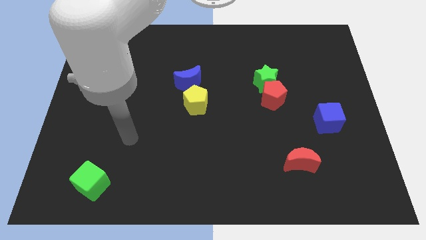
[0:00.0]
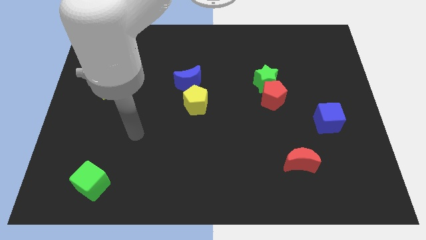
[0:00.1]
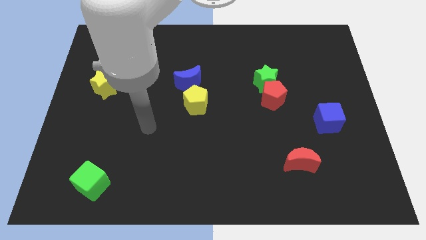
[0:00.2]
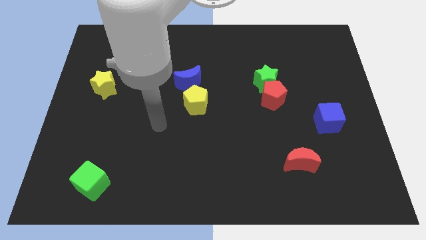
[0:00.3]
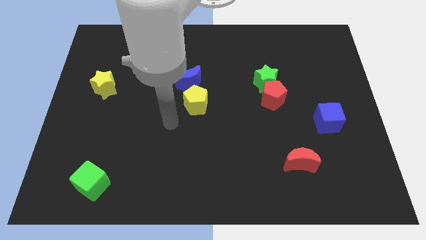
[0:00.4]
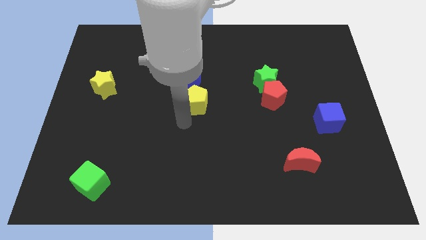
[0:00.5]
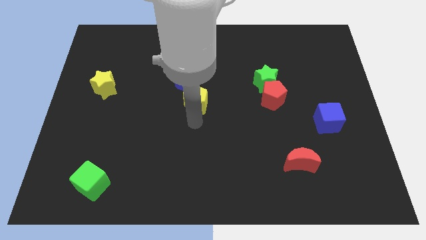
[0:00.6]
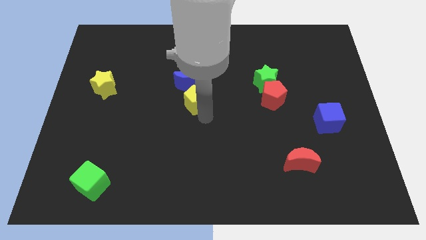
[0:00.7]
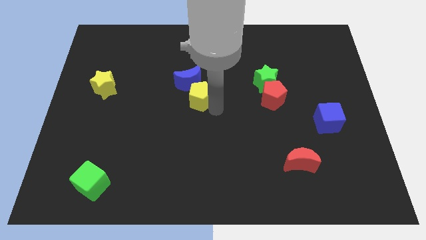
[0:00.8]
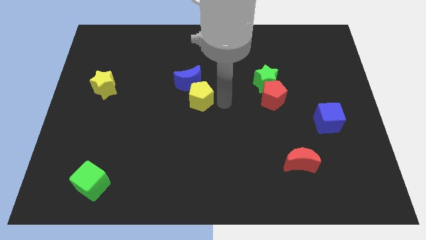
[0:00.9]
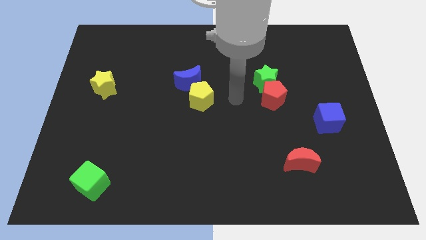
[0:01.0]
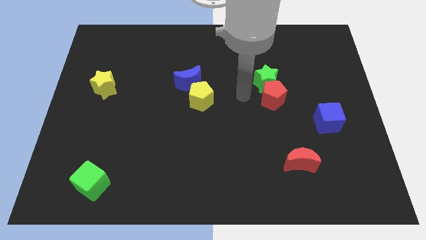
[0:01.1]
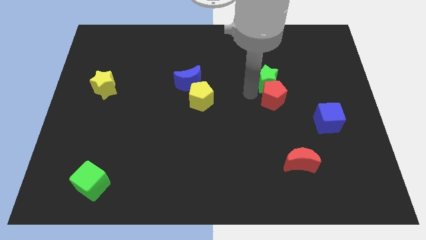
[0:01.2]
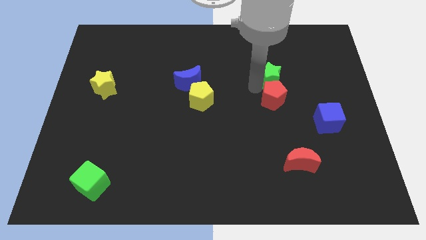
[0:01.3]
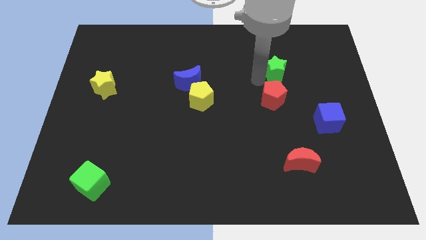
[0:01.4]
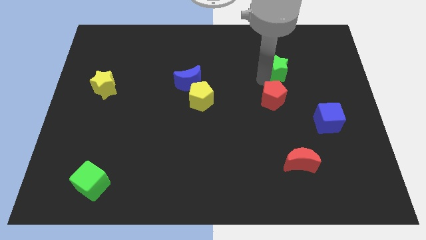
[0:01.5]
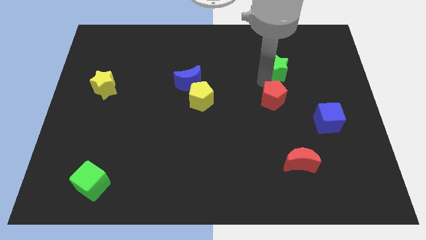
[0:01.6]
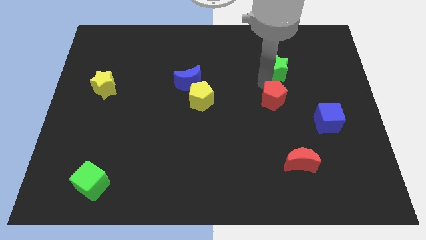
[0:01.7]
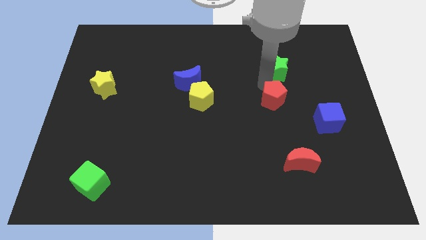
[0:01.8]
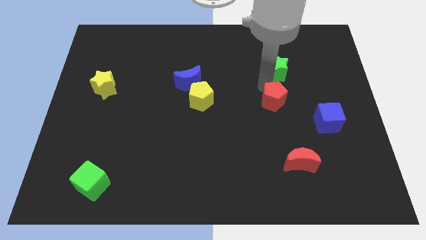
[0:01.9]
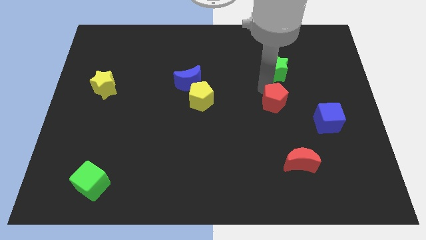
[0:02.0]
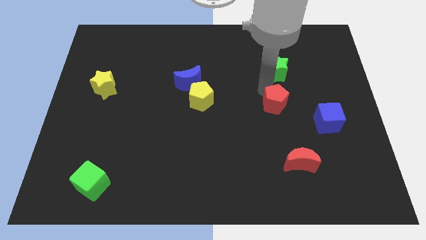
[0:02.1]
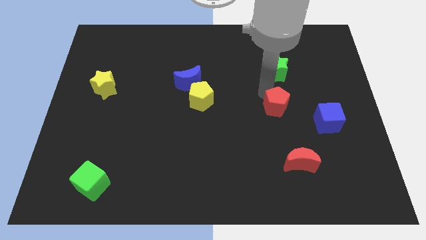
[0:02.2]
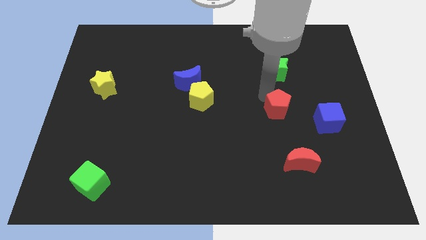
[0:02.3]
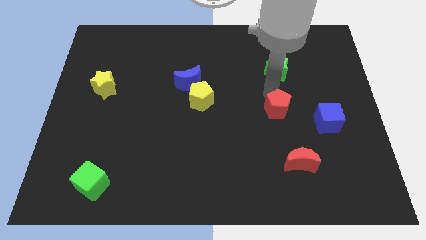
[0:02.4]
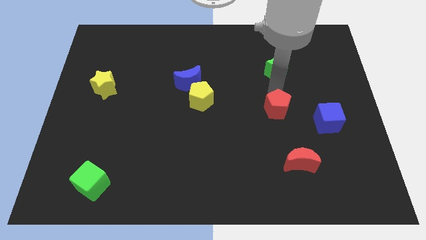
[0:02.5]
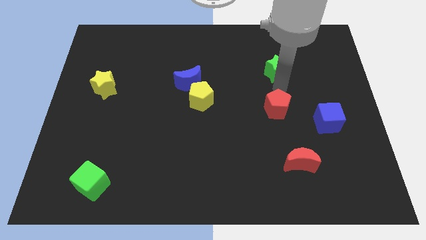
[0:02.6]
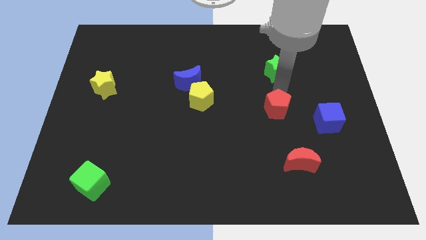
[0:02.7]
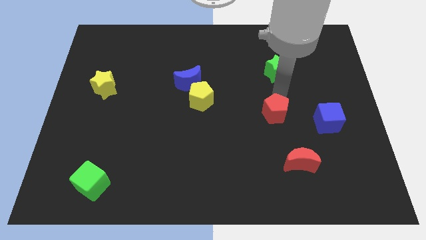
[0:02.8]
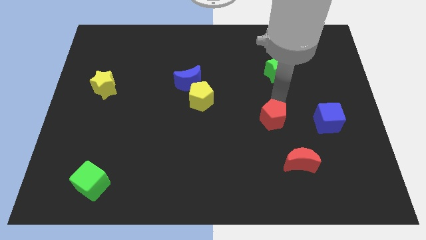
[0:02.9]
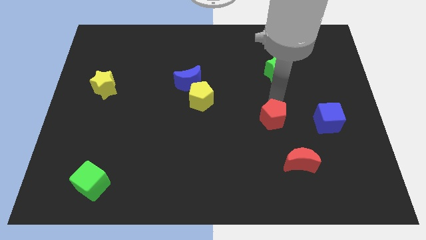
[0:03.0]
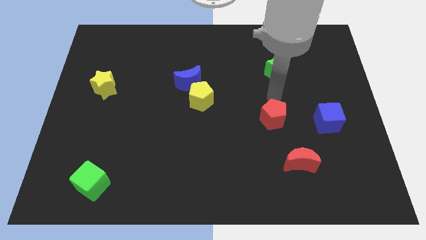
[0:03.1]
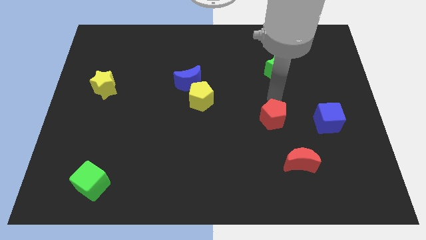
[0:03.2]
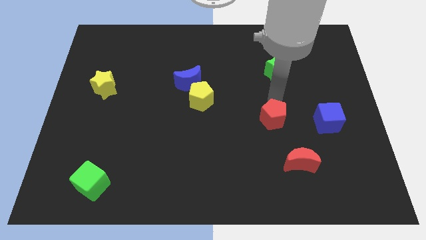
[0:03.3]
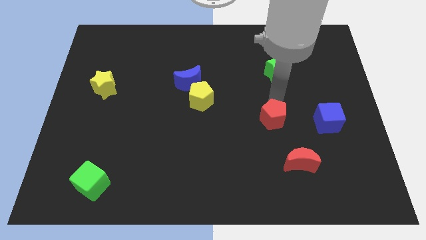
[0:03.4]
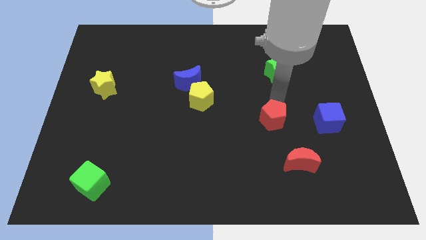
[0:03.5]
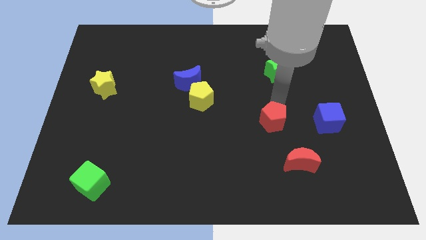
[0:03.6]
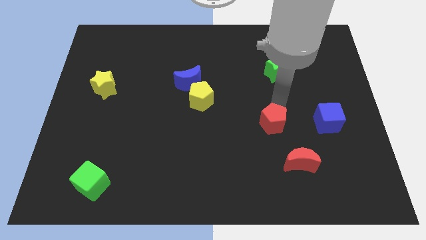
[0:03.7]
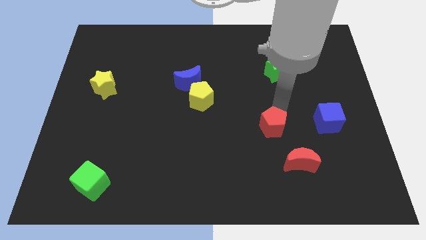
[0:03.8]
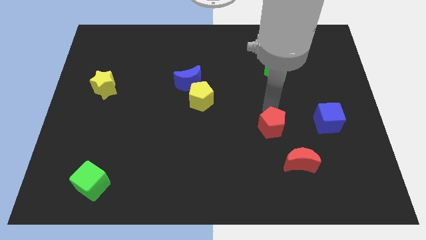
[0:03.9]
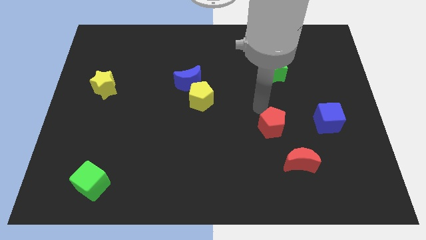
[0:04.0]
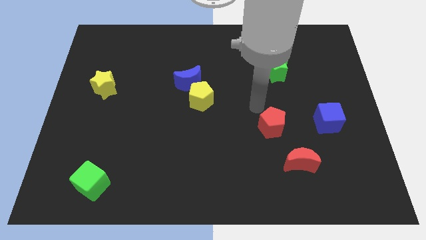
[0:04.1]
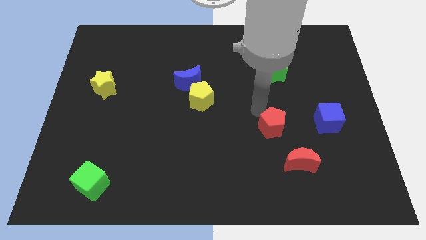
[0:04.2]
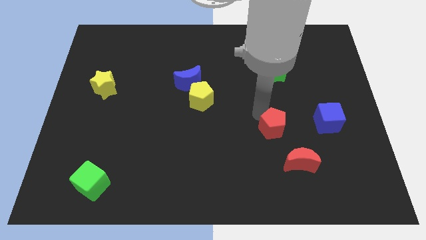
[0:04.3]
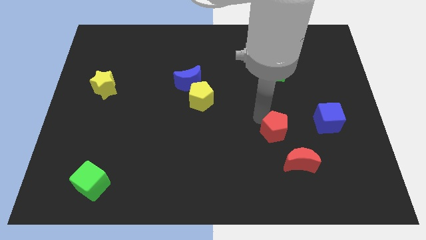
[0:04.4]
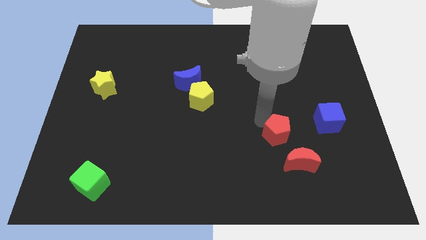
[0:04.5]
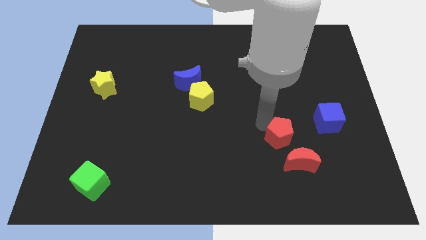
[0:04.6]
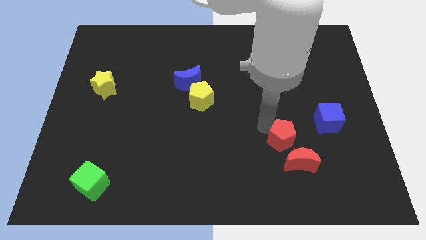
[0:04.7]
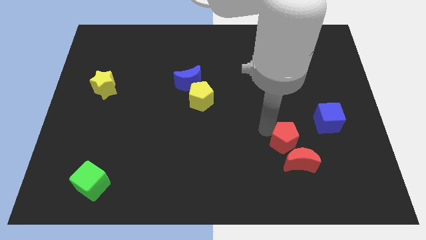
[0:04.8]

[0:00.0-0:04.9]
move the red pentagon next to the red moon

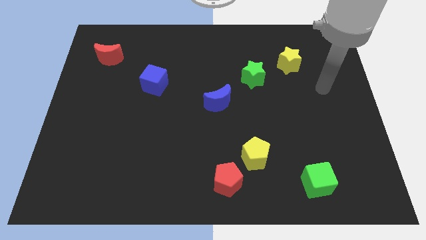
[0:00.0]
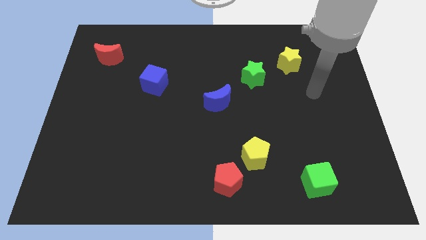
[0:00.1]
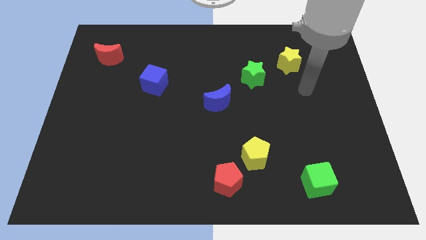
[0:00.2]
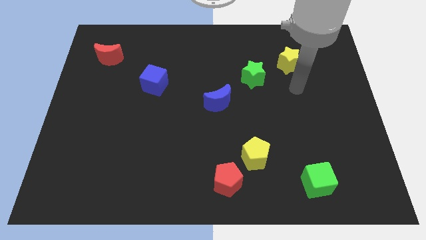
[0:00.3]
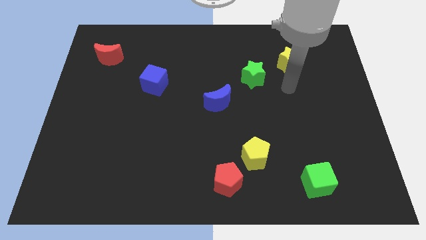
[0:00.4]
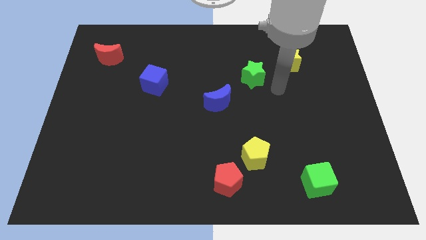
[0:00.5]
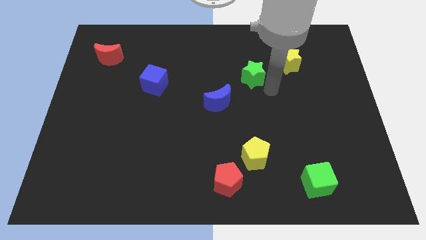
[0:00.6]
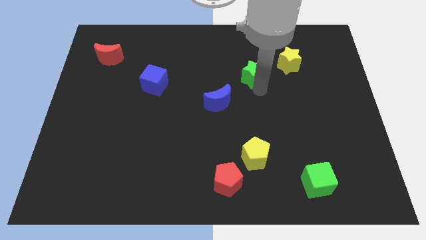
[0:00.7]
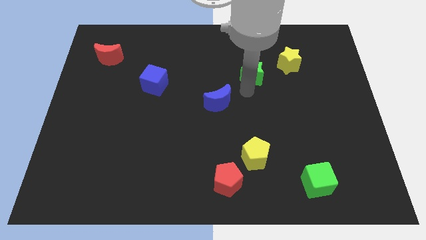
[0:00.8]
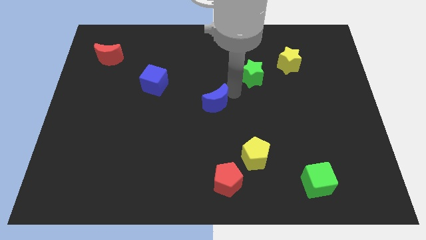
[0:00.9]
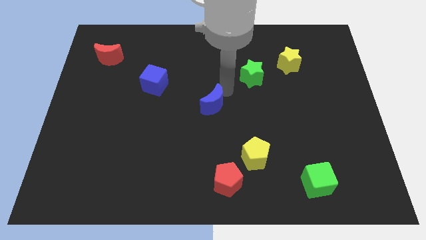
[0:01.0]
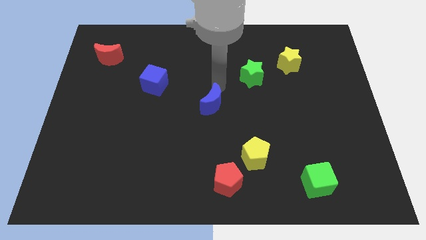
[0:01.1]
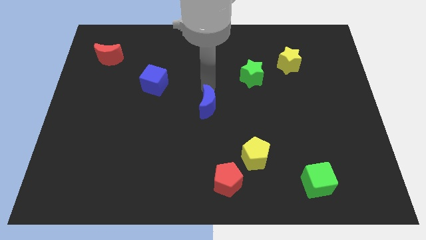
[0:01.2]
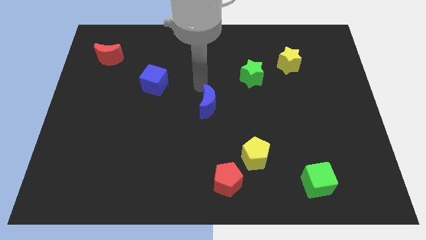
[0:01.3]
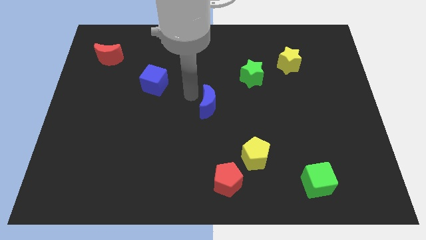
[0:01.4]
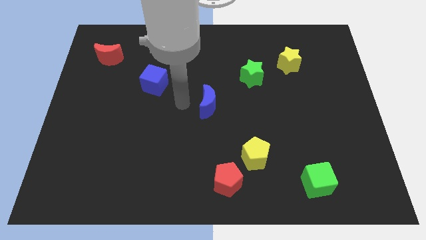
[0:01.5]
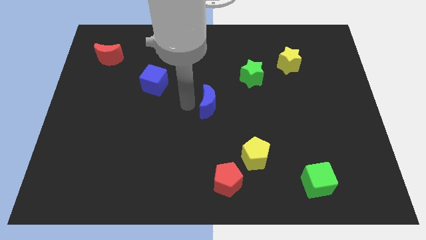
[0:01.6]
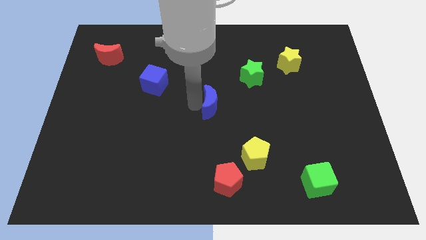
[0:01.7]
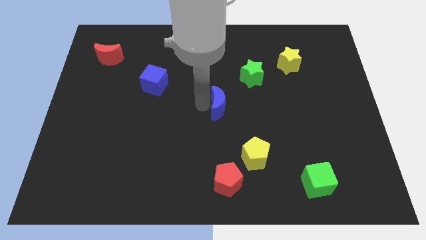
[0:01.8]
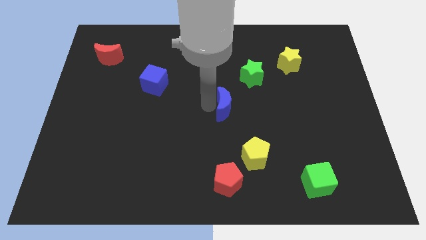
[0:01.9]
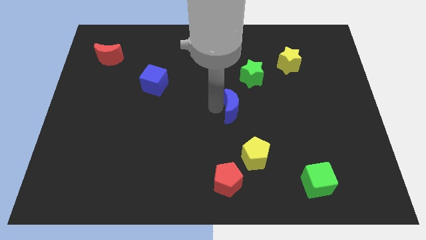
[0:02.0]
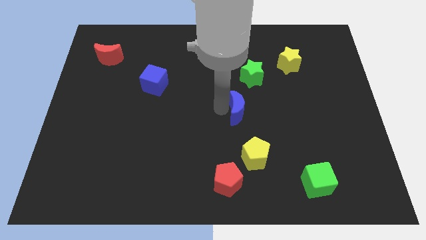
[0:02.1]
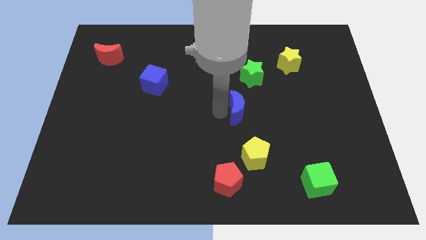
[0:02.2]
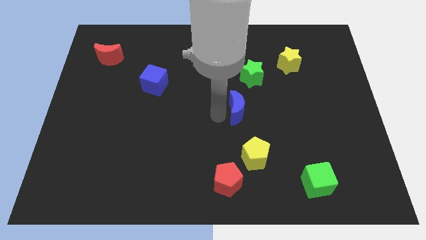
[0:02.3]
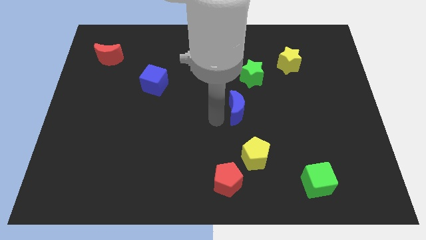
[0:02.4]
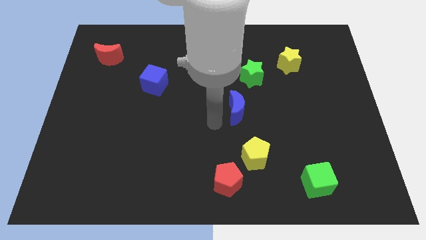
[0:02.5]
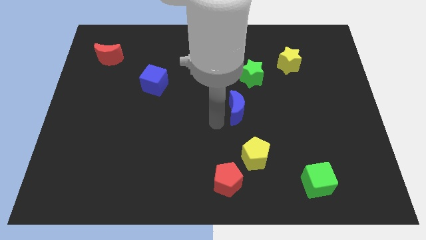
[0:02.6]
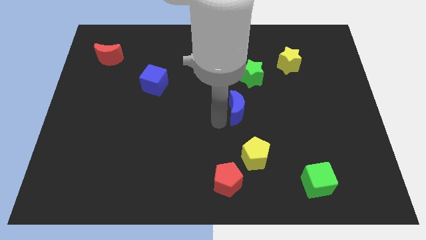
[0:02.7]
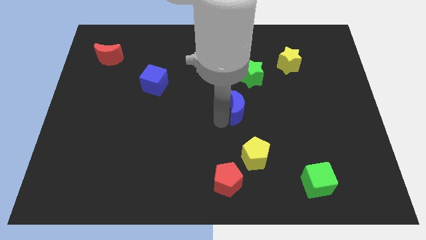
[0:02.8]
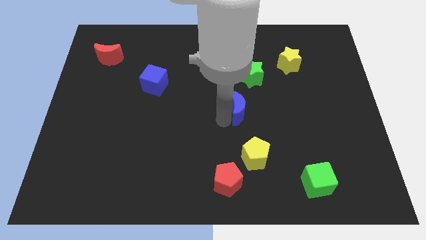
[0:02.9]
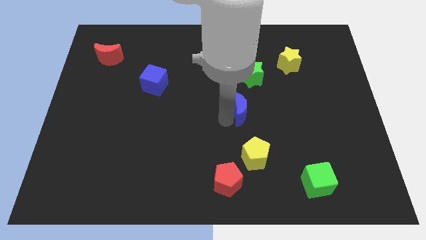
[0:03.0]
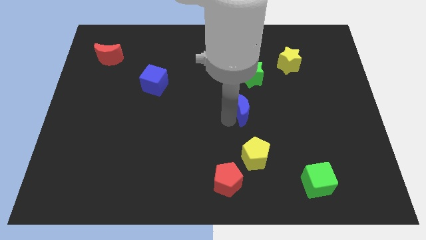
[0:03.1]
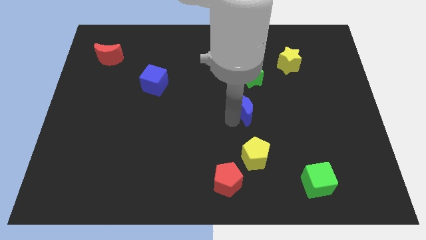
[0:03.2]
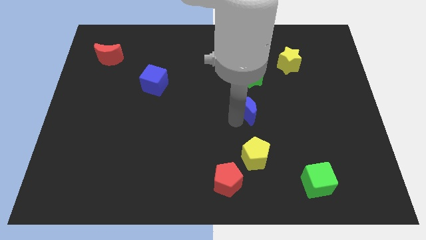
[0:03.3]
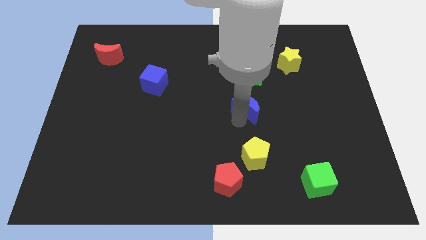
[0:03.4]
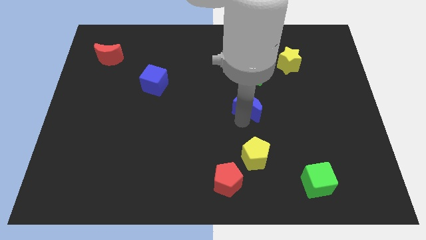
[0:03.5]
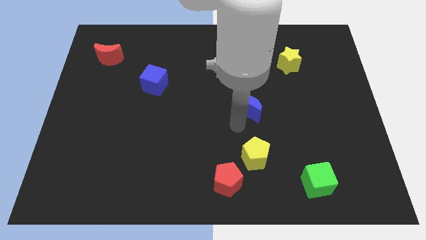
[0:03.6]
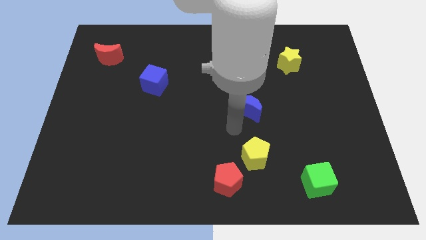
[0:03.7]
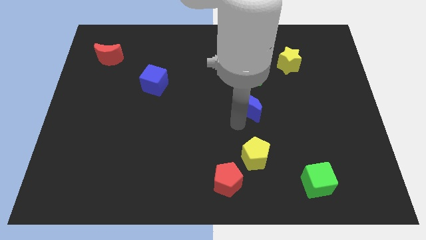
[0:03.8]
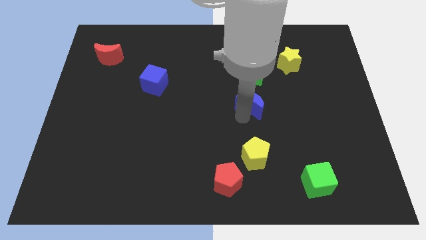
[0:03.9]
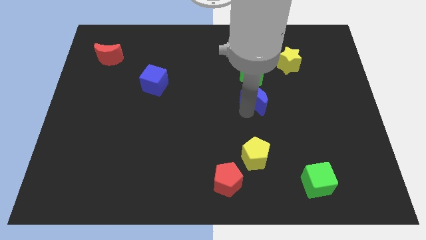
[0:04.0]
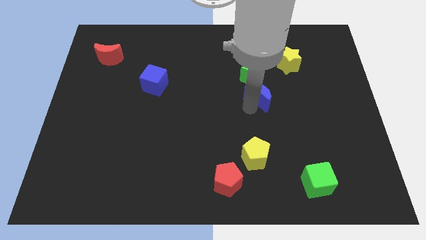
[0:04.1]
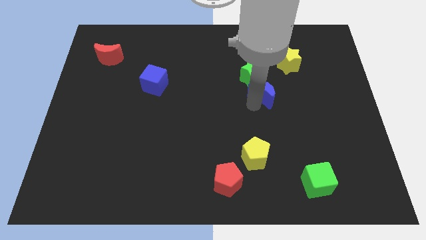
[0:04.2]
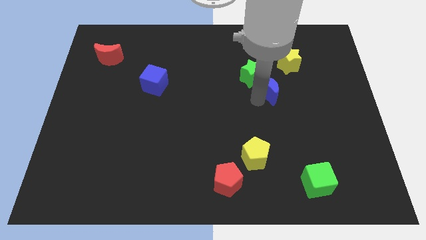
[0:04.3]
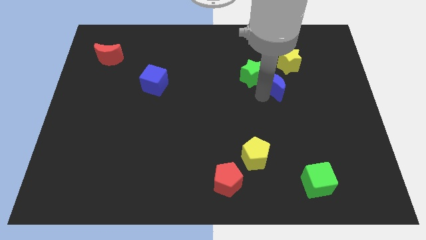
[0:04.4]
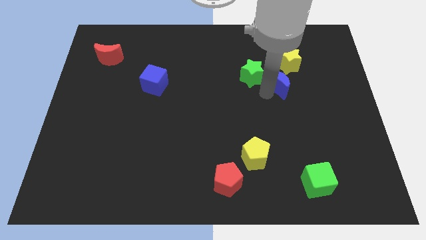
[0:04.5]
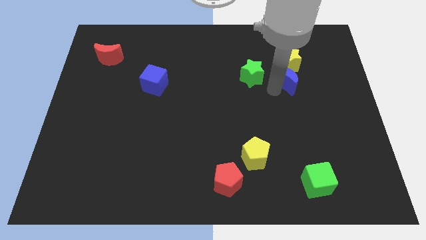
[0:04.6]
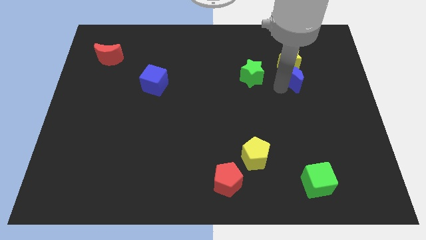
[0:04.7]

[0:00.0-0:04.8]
move the blue moon close to the yellow star
